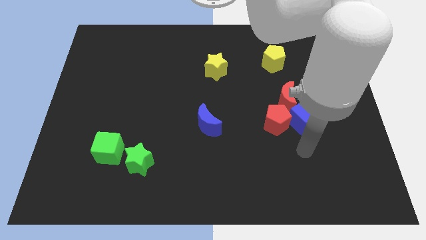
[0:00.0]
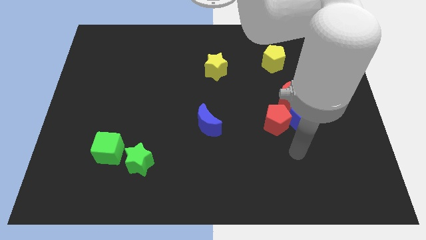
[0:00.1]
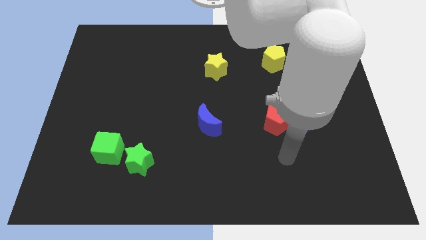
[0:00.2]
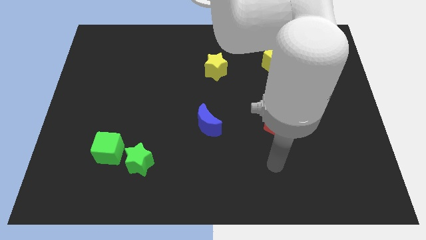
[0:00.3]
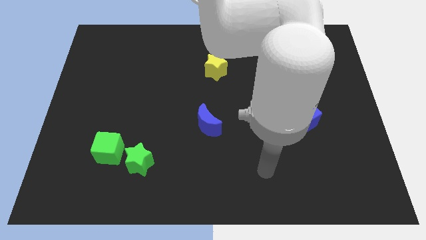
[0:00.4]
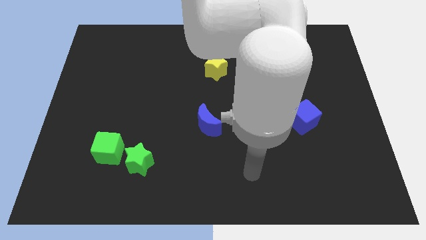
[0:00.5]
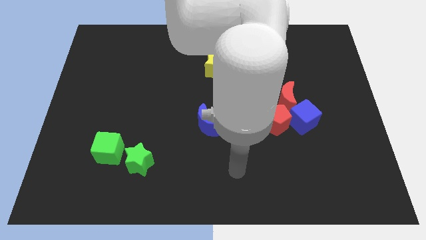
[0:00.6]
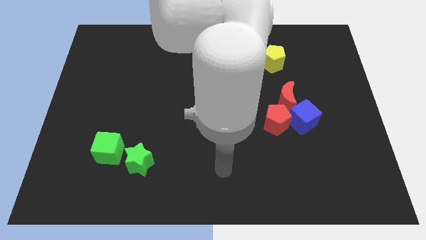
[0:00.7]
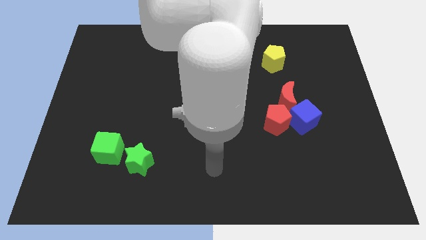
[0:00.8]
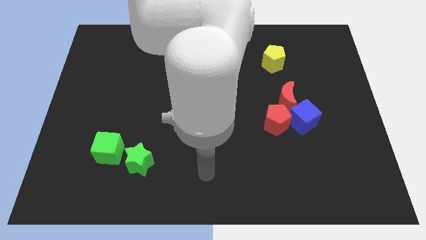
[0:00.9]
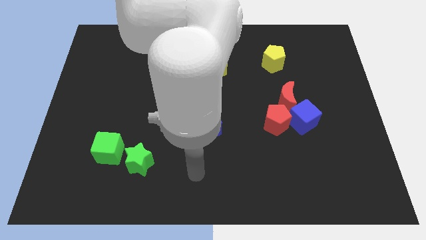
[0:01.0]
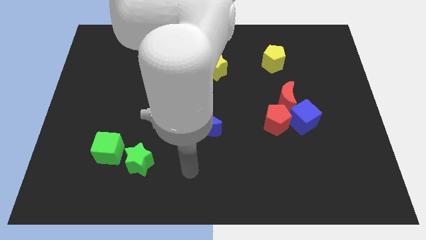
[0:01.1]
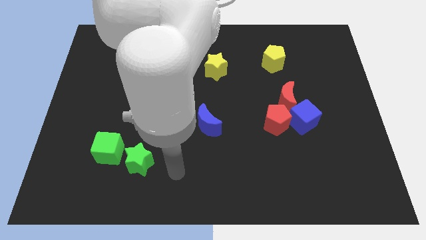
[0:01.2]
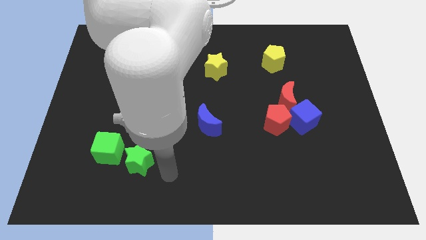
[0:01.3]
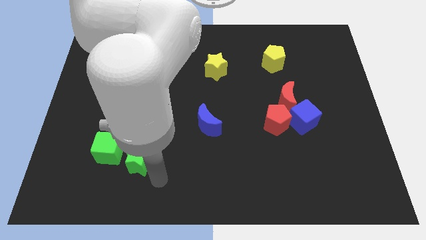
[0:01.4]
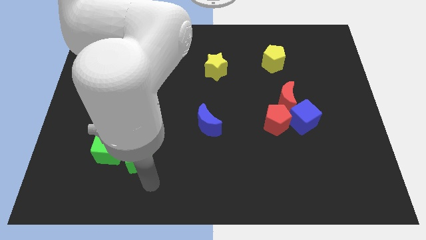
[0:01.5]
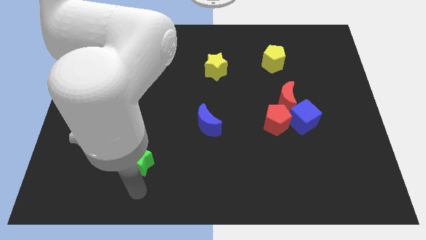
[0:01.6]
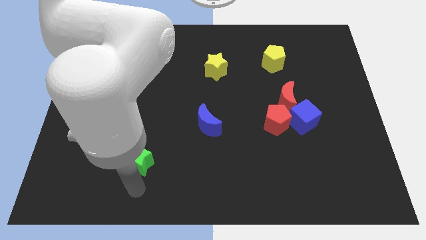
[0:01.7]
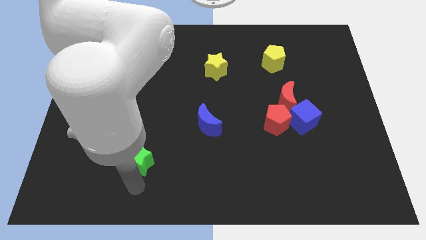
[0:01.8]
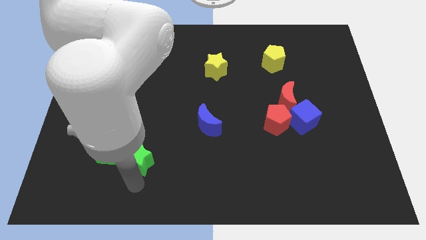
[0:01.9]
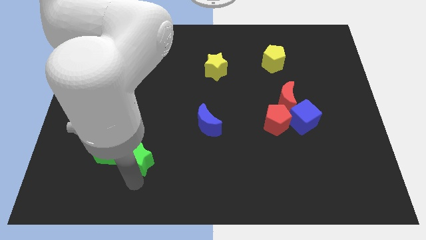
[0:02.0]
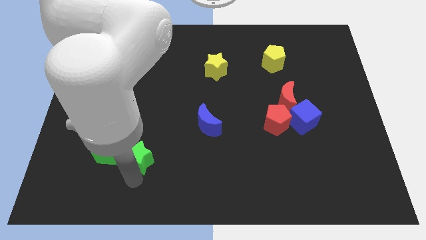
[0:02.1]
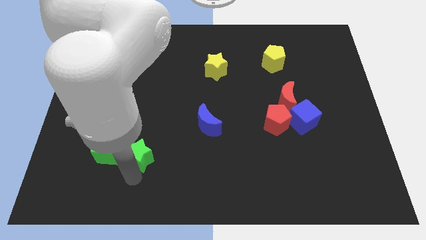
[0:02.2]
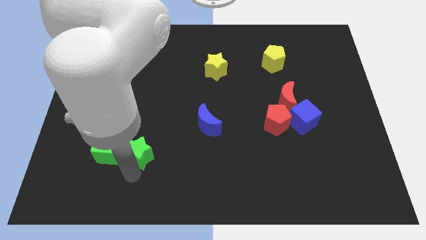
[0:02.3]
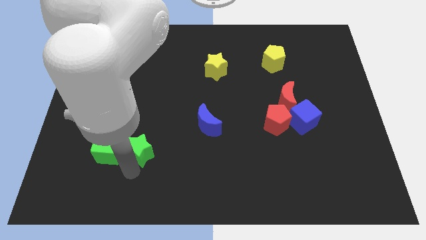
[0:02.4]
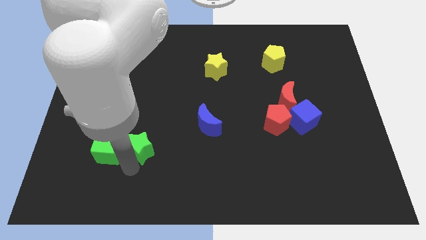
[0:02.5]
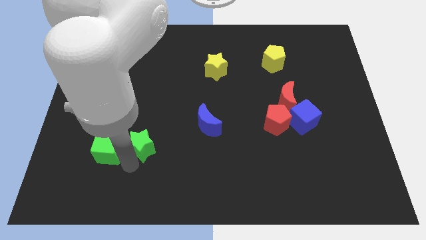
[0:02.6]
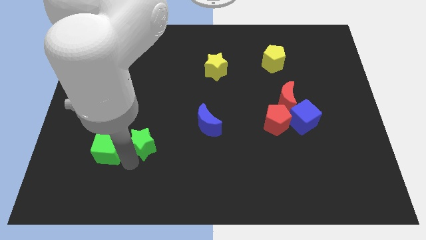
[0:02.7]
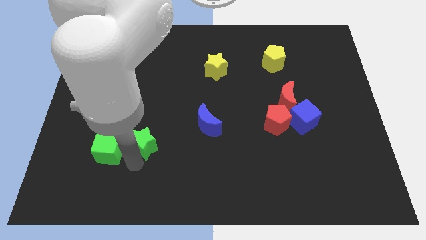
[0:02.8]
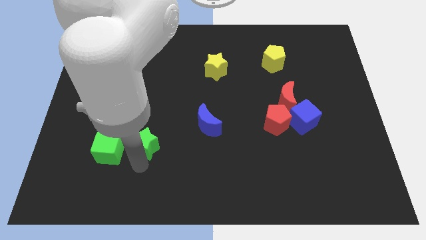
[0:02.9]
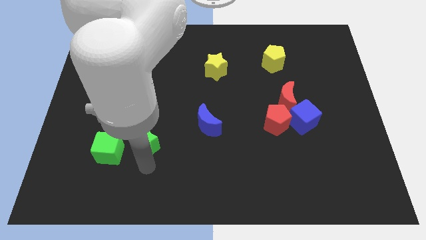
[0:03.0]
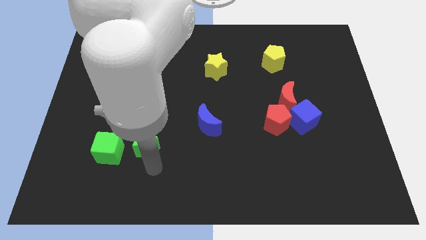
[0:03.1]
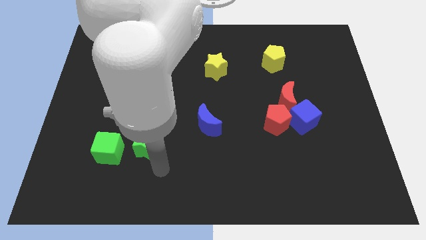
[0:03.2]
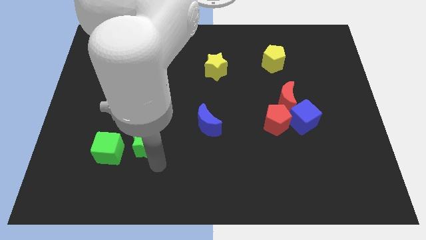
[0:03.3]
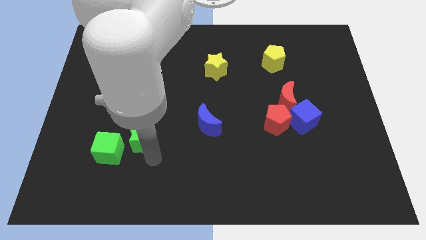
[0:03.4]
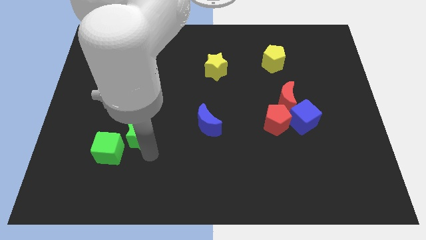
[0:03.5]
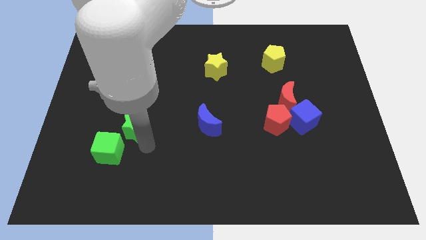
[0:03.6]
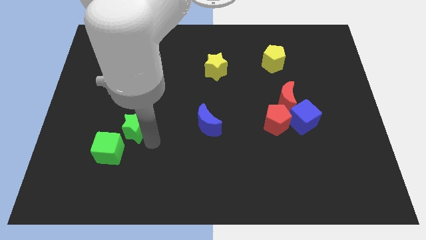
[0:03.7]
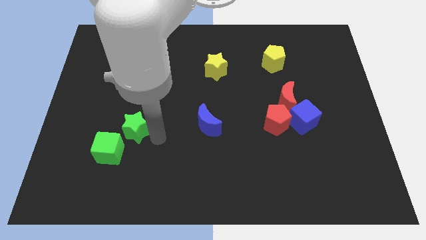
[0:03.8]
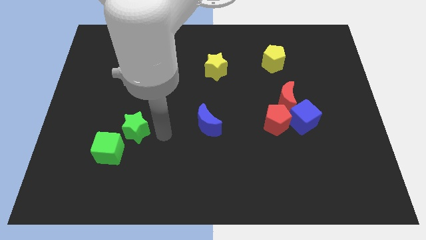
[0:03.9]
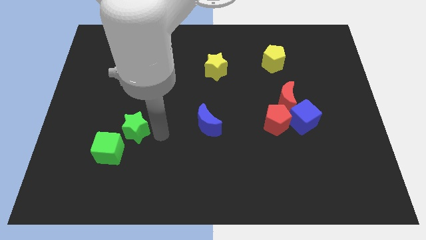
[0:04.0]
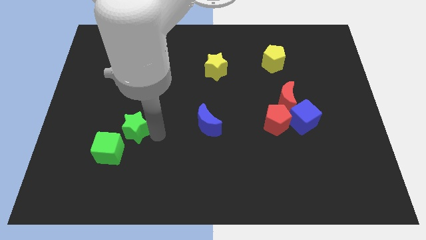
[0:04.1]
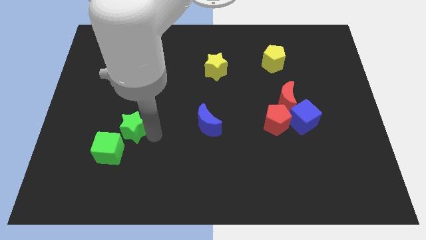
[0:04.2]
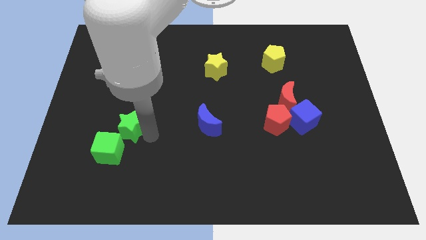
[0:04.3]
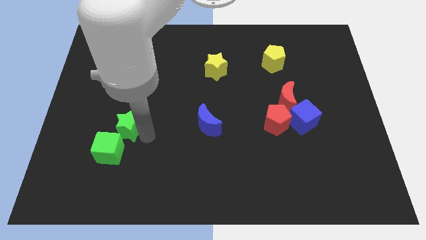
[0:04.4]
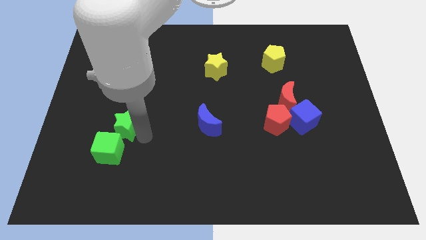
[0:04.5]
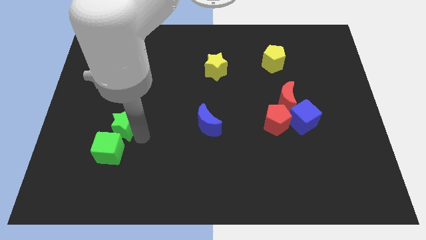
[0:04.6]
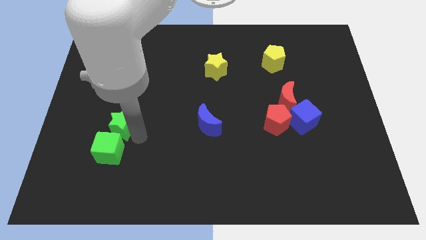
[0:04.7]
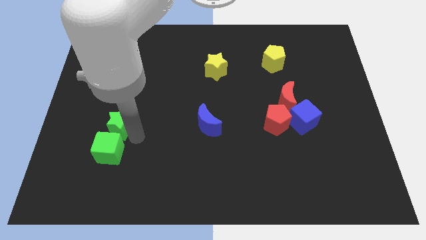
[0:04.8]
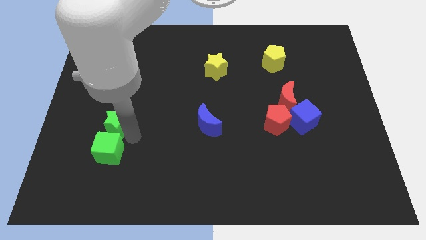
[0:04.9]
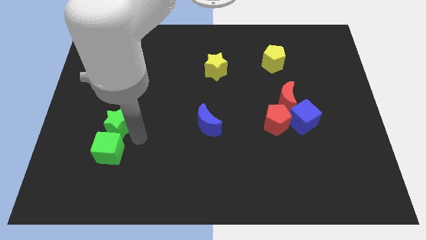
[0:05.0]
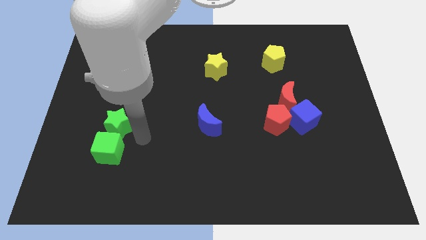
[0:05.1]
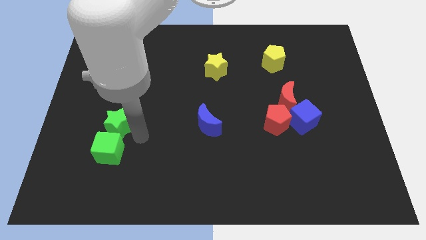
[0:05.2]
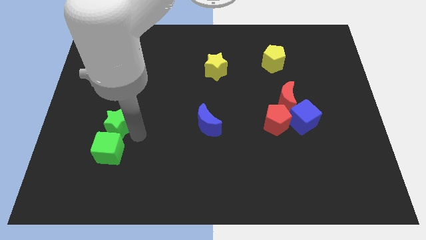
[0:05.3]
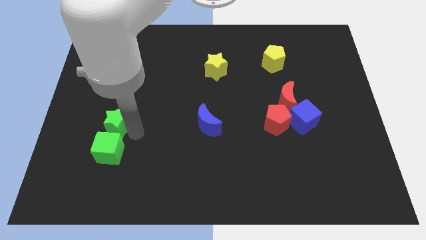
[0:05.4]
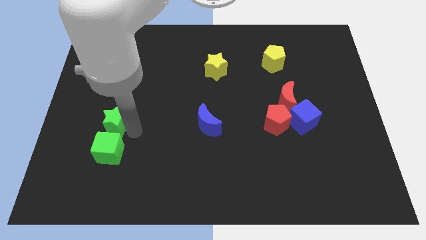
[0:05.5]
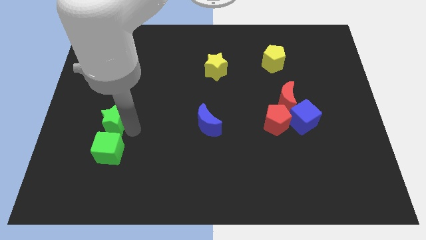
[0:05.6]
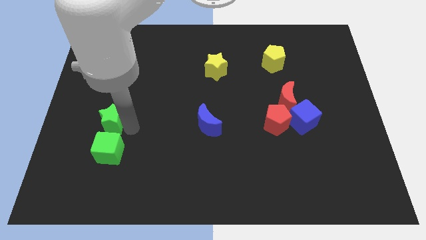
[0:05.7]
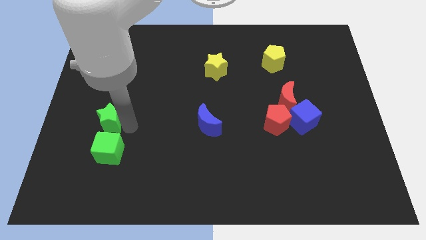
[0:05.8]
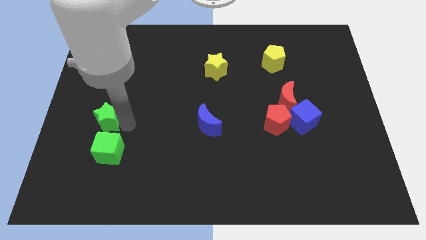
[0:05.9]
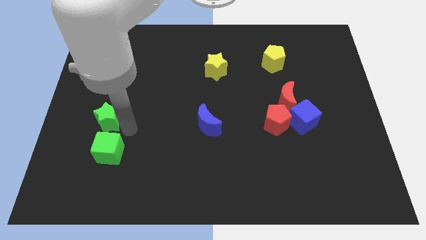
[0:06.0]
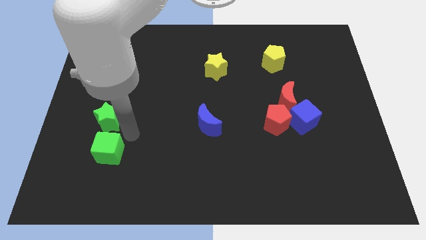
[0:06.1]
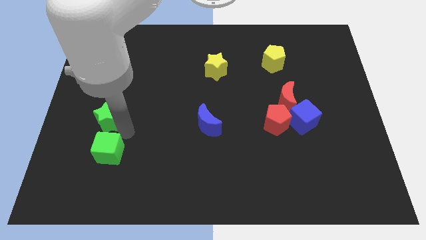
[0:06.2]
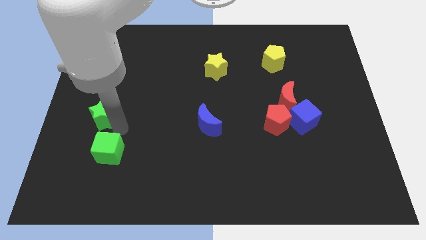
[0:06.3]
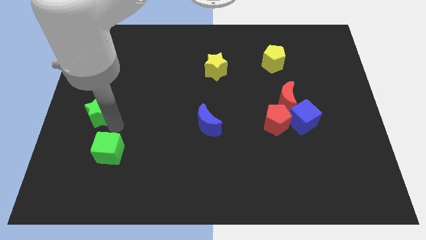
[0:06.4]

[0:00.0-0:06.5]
put the green star to the left side of the board

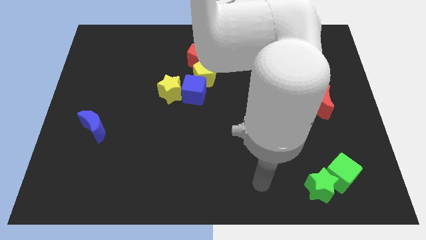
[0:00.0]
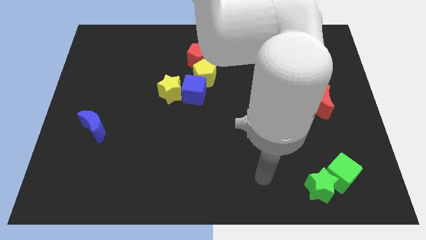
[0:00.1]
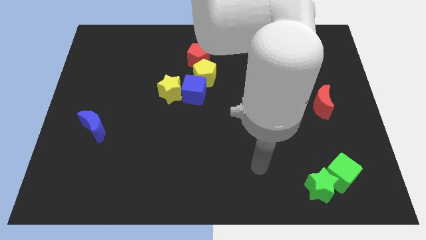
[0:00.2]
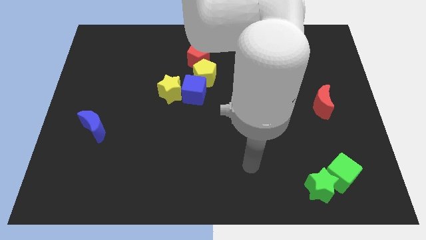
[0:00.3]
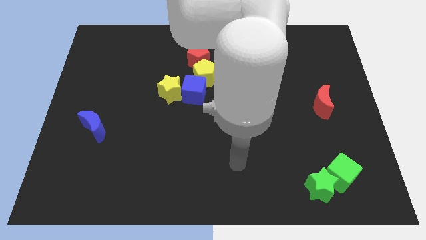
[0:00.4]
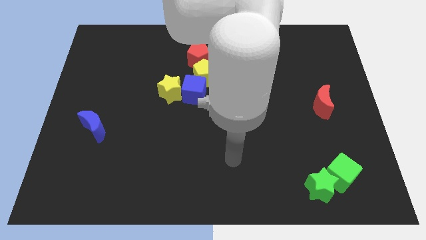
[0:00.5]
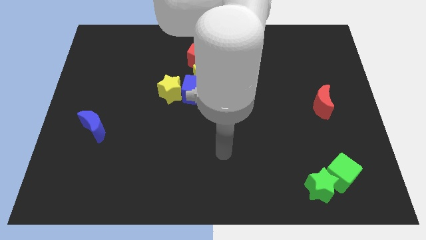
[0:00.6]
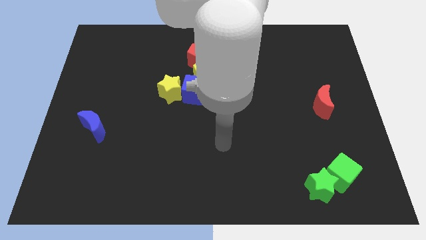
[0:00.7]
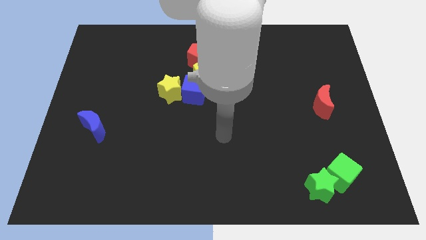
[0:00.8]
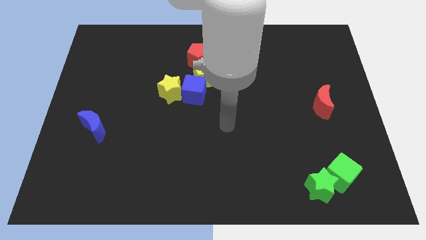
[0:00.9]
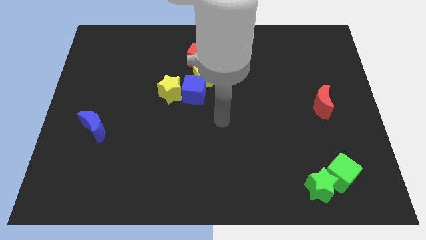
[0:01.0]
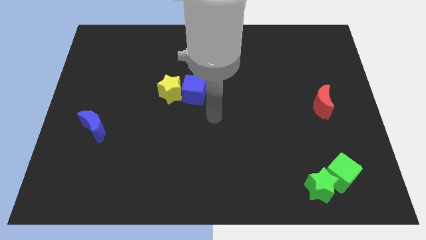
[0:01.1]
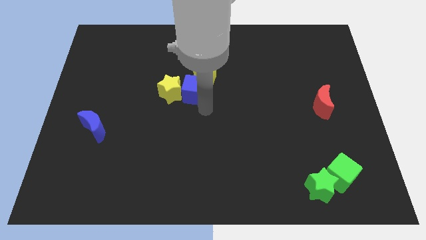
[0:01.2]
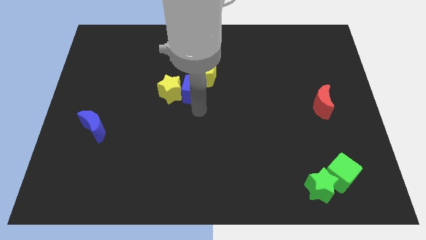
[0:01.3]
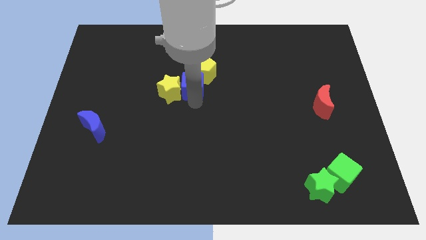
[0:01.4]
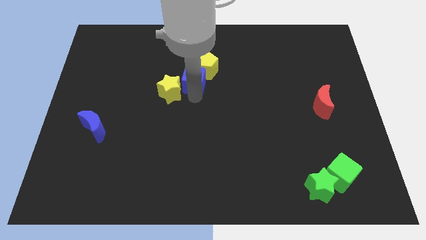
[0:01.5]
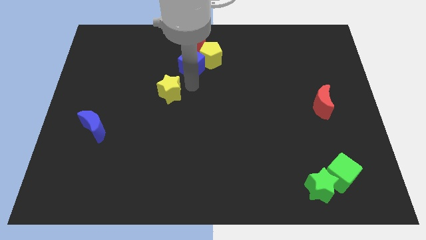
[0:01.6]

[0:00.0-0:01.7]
push the yellow pentagon to the towards your base
